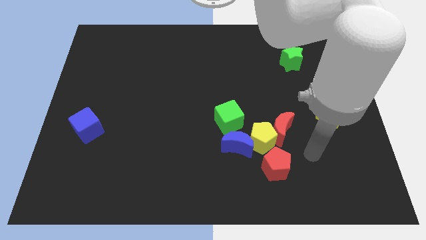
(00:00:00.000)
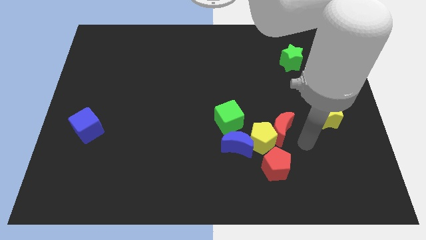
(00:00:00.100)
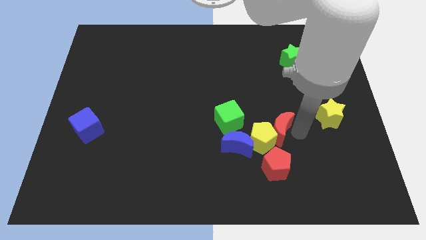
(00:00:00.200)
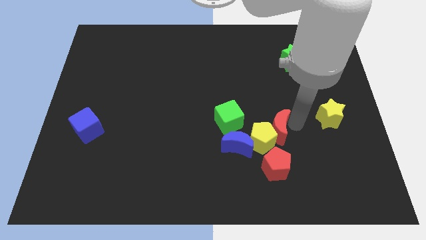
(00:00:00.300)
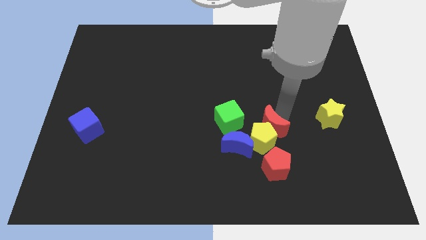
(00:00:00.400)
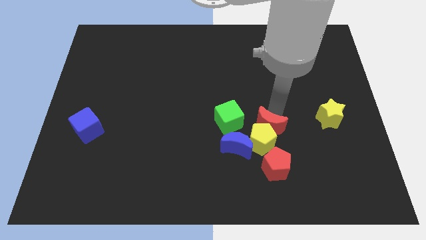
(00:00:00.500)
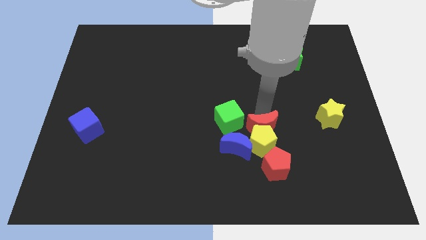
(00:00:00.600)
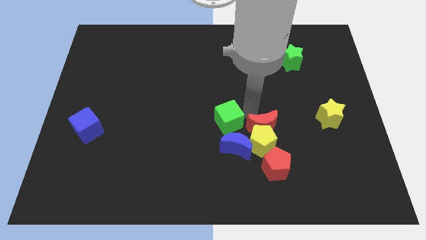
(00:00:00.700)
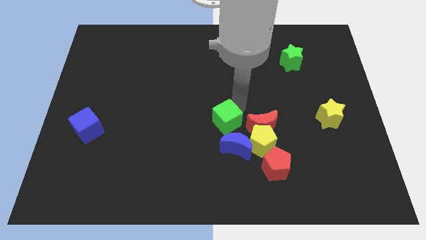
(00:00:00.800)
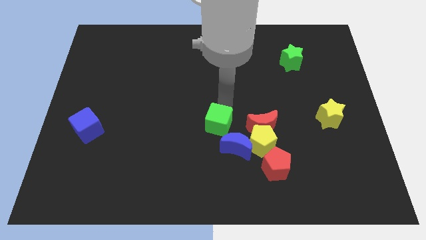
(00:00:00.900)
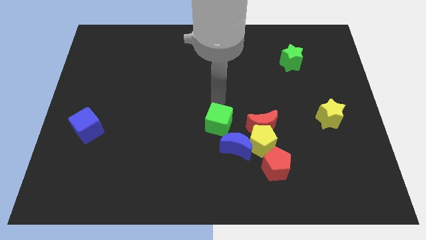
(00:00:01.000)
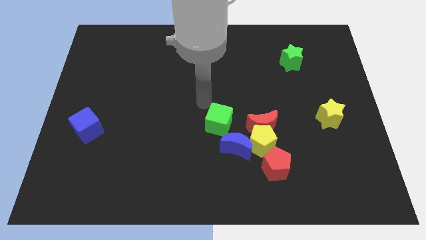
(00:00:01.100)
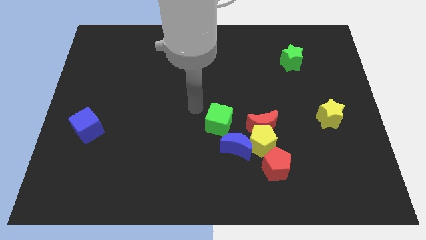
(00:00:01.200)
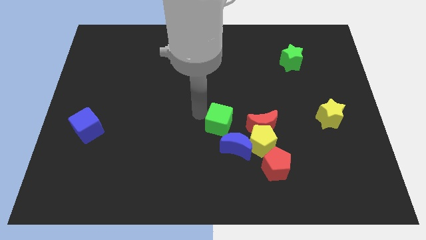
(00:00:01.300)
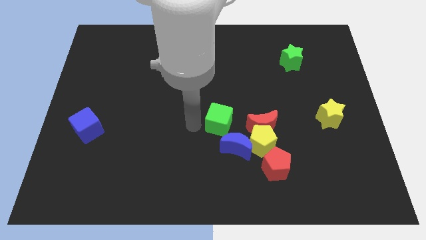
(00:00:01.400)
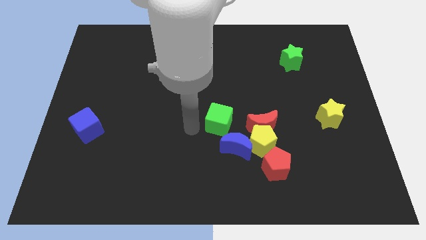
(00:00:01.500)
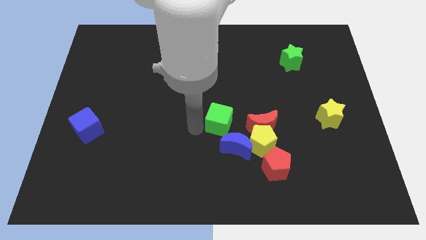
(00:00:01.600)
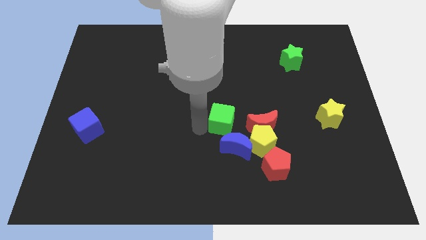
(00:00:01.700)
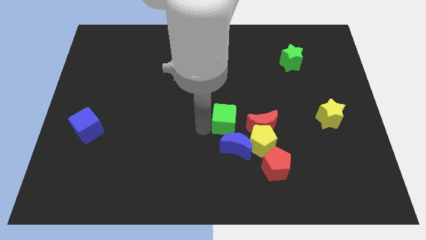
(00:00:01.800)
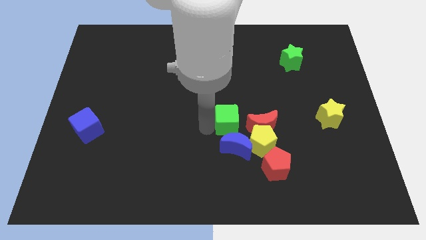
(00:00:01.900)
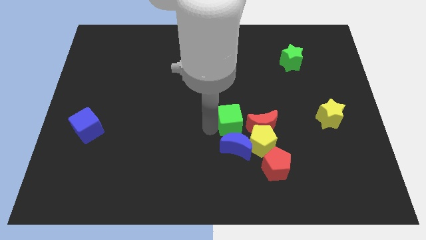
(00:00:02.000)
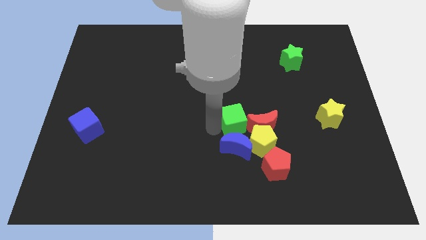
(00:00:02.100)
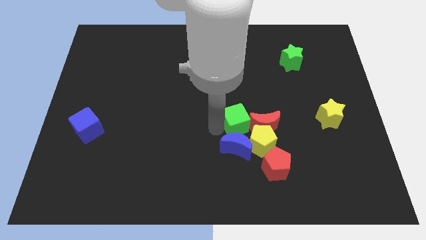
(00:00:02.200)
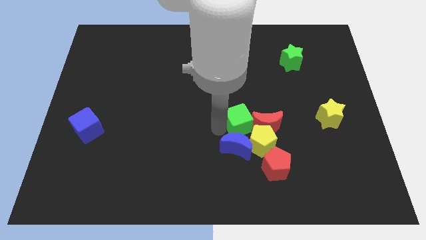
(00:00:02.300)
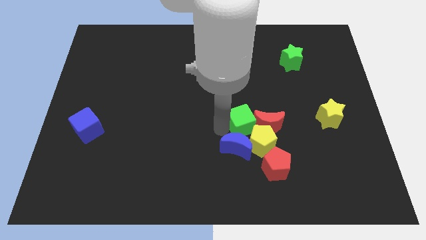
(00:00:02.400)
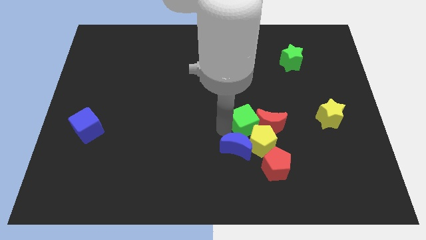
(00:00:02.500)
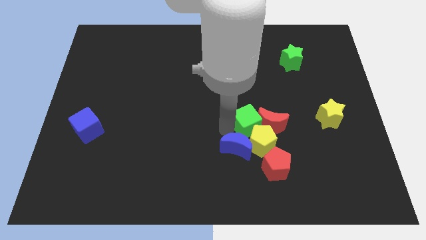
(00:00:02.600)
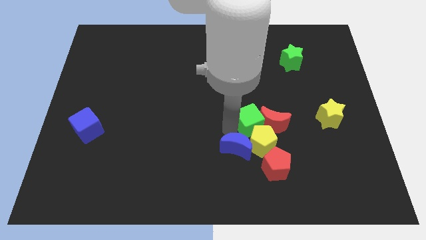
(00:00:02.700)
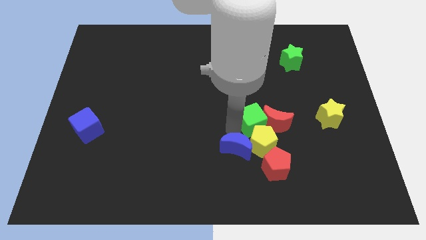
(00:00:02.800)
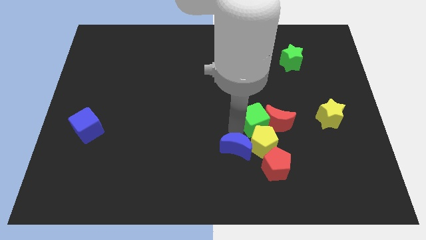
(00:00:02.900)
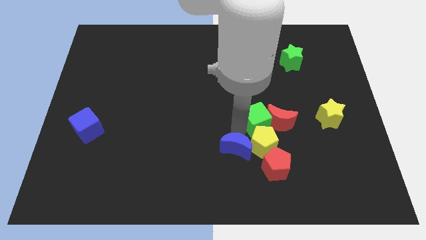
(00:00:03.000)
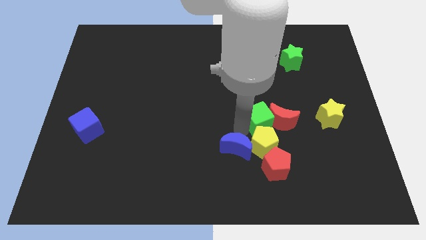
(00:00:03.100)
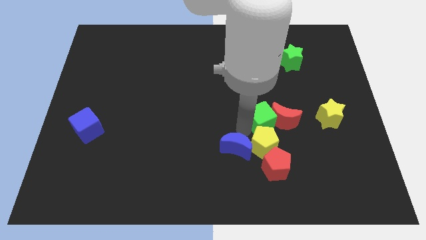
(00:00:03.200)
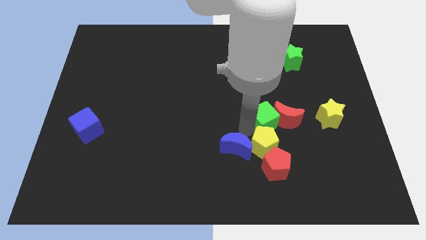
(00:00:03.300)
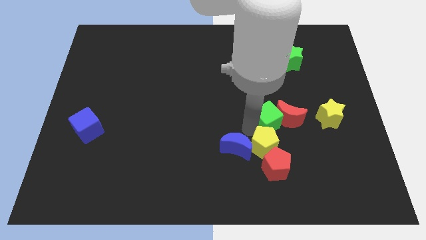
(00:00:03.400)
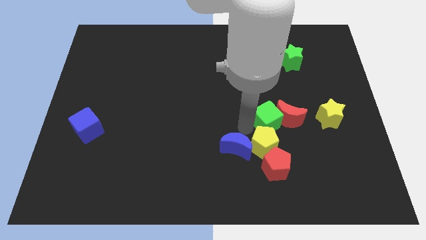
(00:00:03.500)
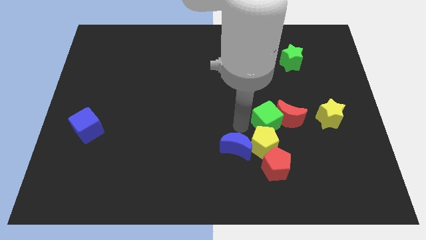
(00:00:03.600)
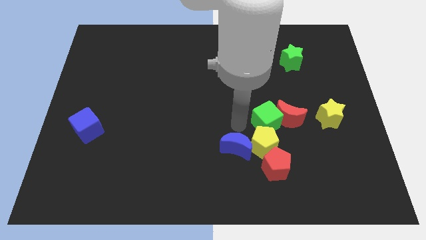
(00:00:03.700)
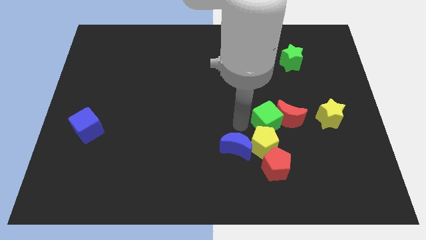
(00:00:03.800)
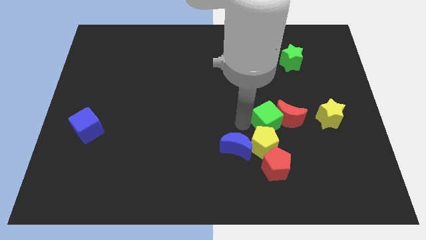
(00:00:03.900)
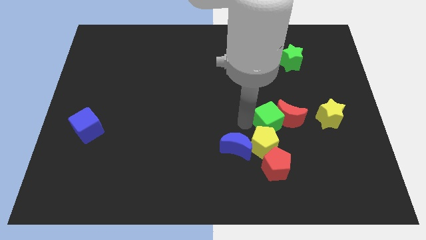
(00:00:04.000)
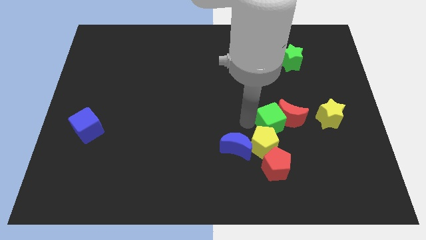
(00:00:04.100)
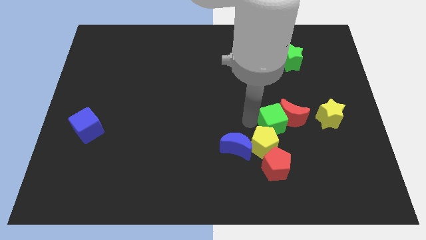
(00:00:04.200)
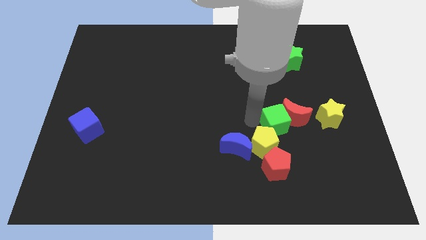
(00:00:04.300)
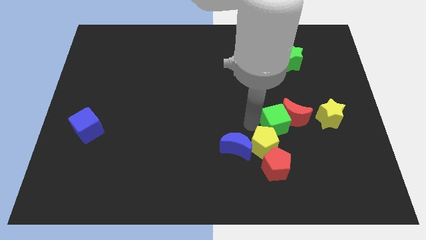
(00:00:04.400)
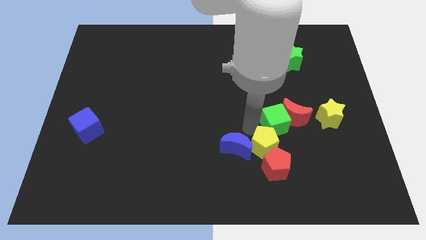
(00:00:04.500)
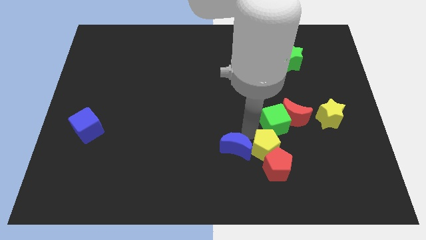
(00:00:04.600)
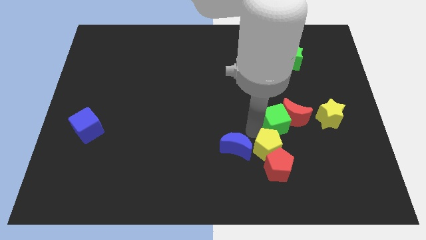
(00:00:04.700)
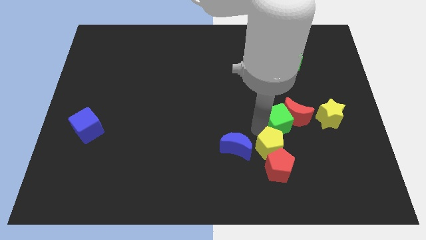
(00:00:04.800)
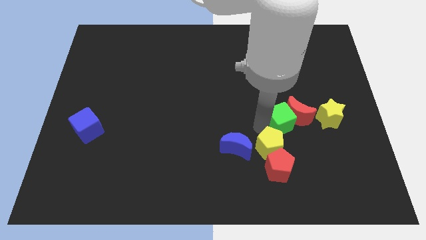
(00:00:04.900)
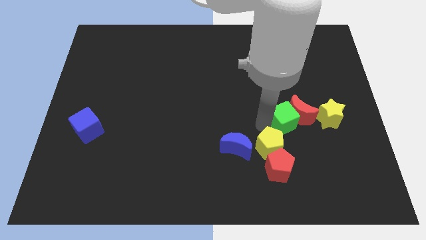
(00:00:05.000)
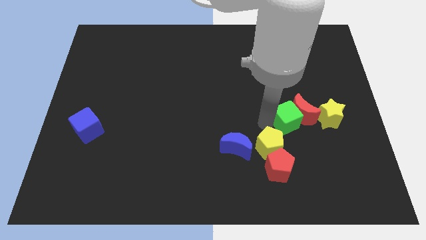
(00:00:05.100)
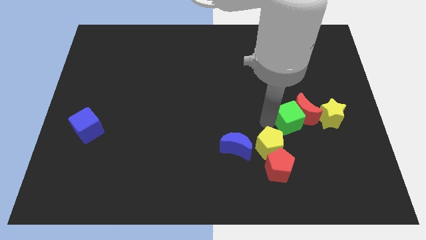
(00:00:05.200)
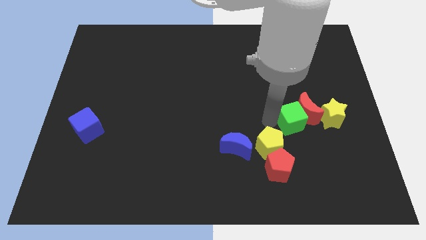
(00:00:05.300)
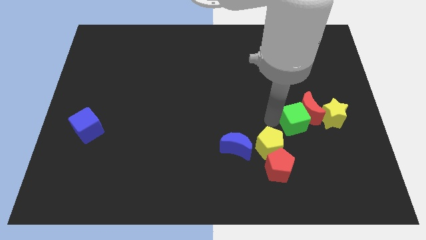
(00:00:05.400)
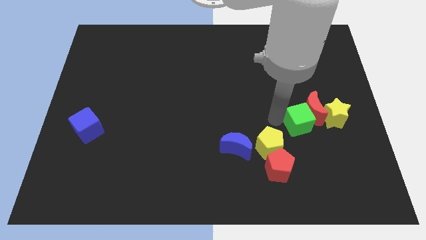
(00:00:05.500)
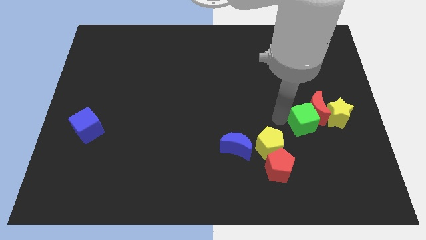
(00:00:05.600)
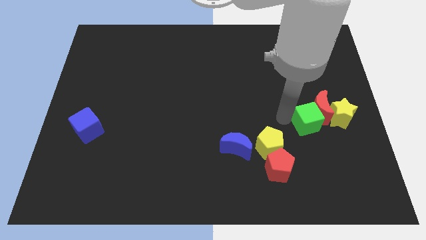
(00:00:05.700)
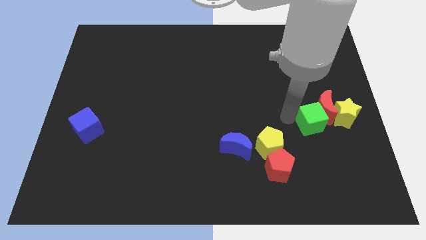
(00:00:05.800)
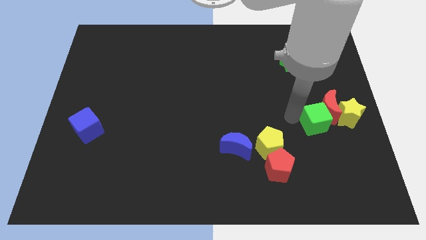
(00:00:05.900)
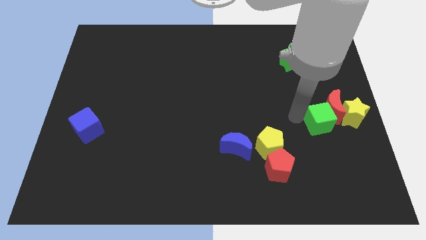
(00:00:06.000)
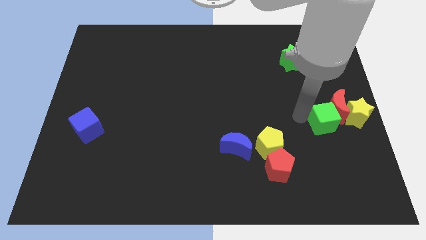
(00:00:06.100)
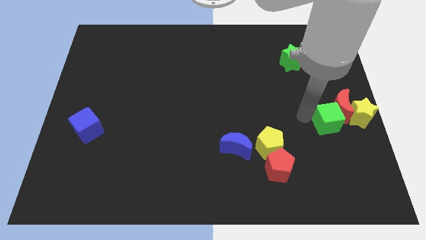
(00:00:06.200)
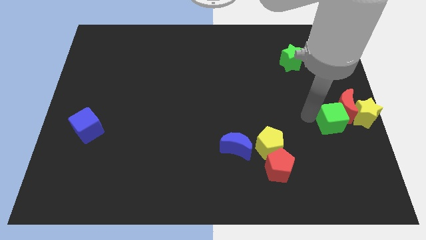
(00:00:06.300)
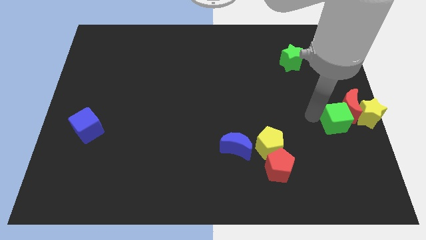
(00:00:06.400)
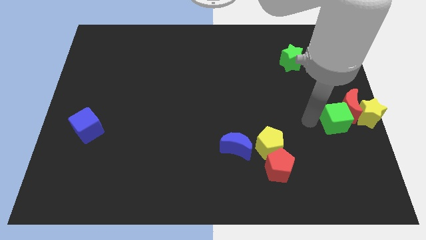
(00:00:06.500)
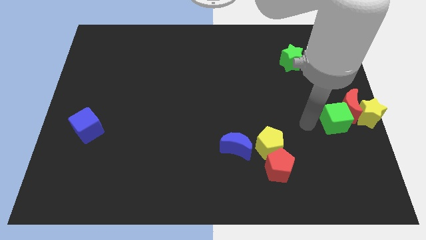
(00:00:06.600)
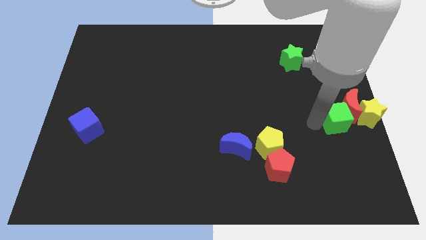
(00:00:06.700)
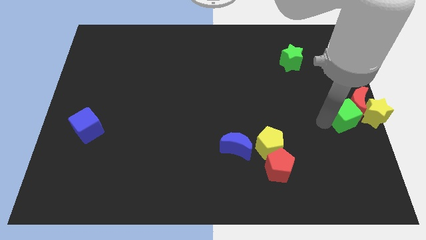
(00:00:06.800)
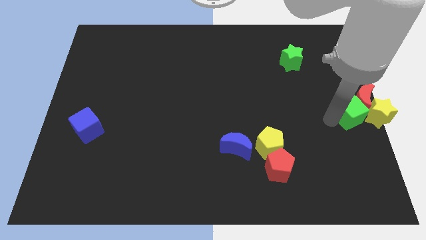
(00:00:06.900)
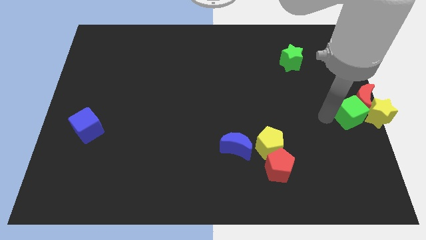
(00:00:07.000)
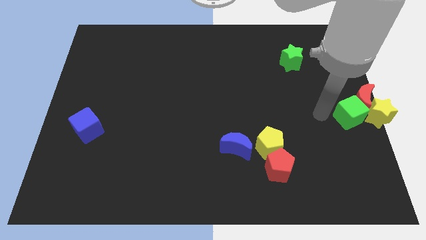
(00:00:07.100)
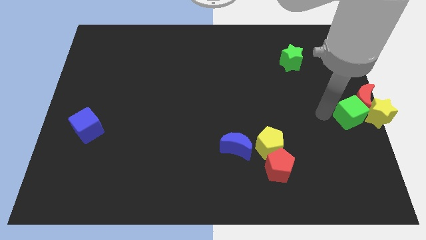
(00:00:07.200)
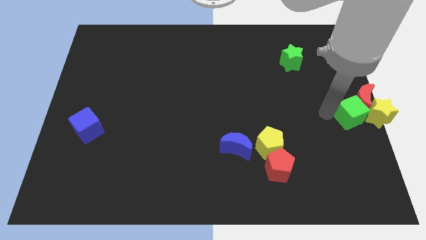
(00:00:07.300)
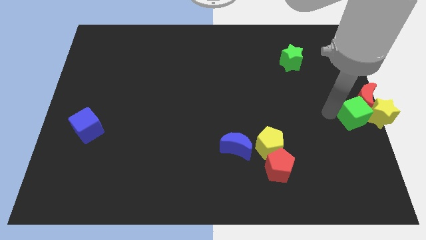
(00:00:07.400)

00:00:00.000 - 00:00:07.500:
push the green cube to the yellow star
